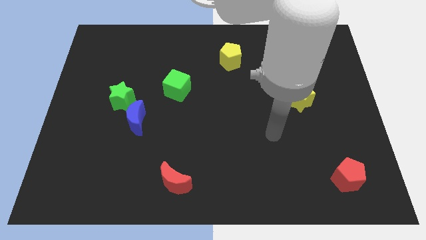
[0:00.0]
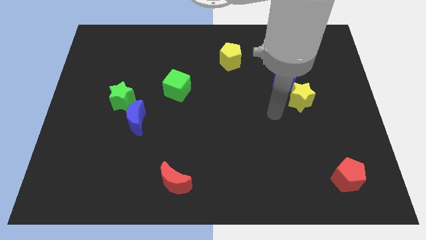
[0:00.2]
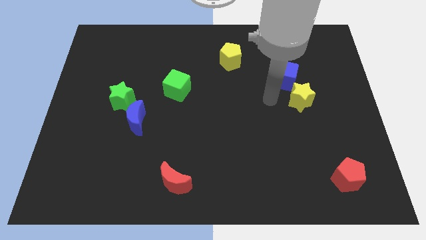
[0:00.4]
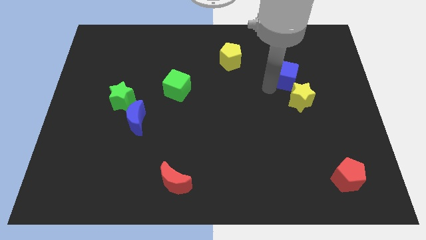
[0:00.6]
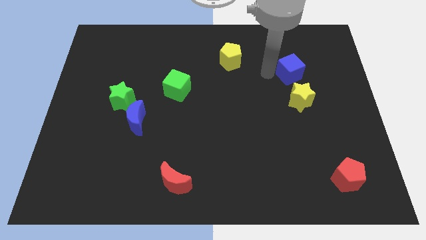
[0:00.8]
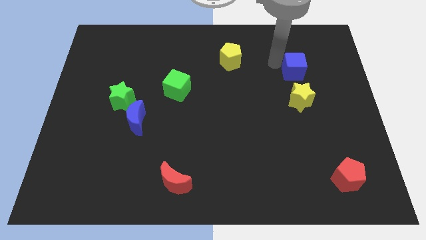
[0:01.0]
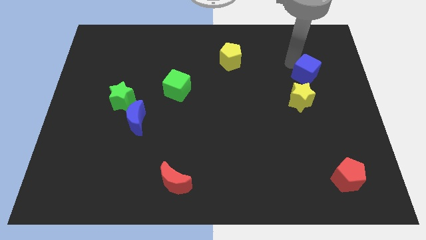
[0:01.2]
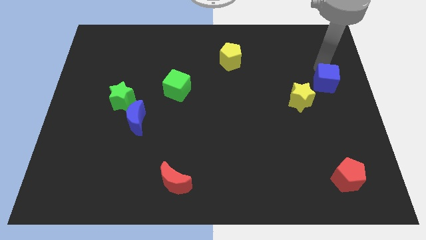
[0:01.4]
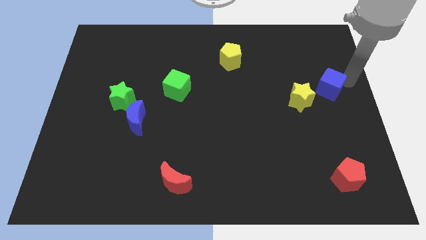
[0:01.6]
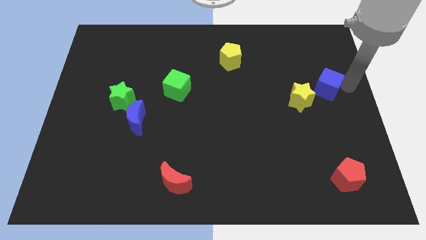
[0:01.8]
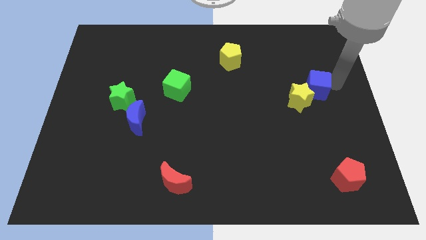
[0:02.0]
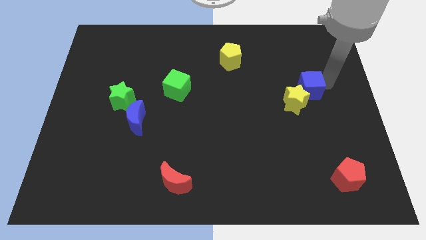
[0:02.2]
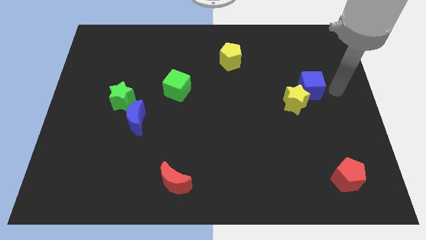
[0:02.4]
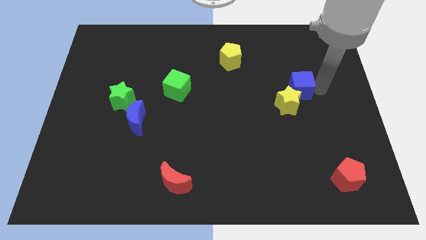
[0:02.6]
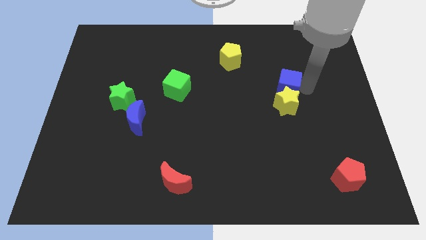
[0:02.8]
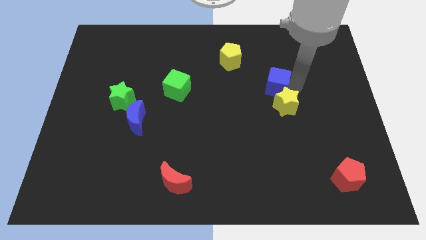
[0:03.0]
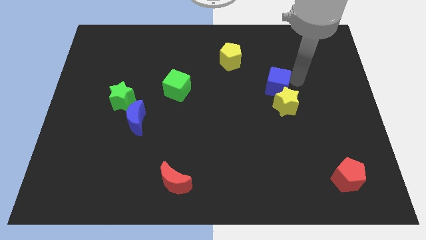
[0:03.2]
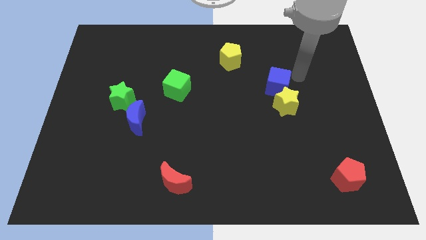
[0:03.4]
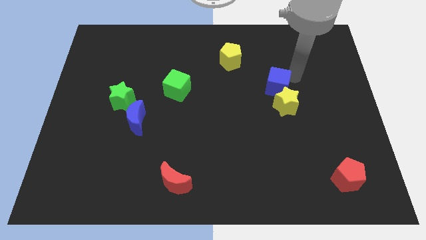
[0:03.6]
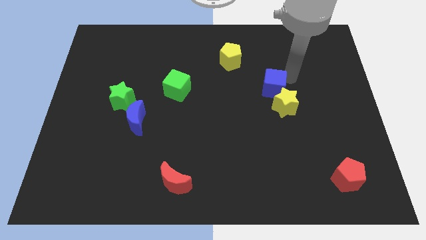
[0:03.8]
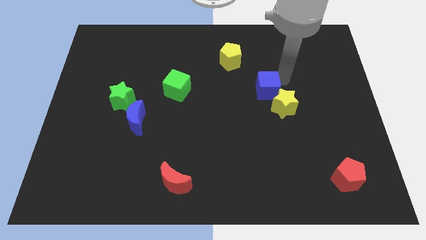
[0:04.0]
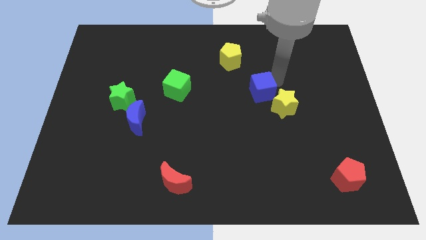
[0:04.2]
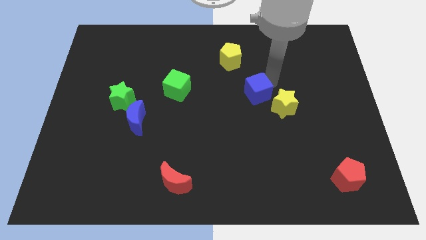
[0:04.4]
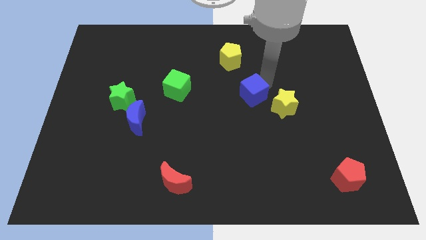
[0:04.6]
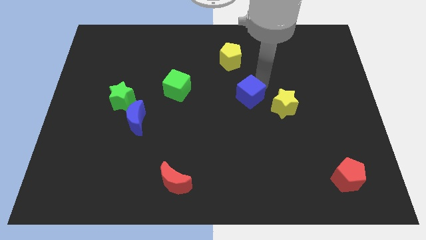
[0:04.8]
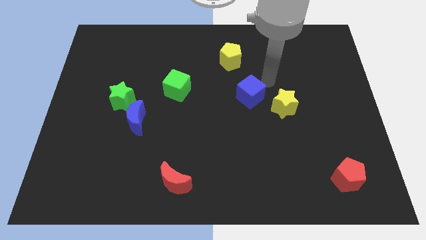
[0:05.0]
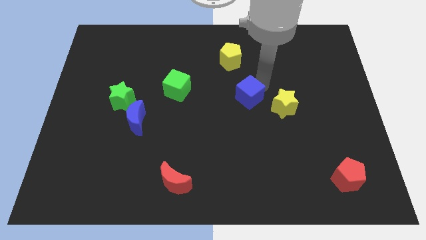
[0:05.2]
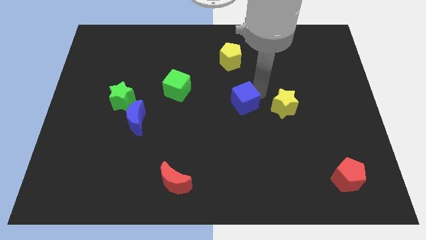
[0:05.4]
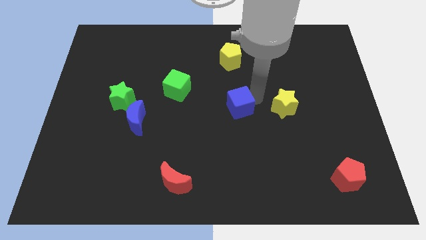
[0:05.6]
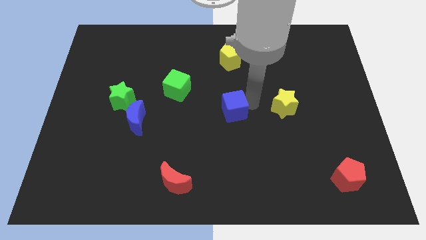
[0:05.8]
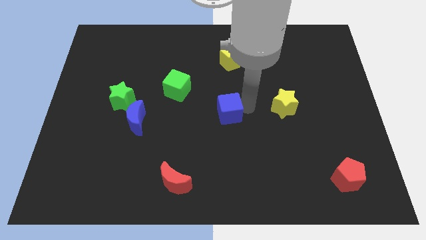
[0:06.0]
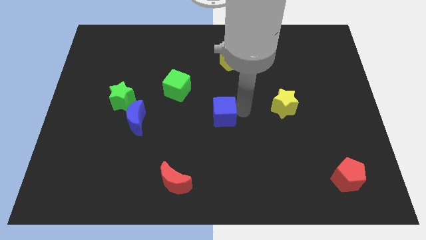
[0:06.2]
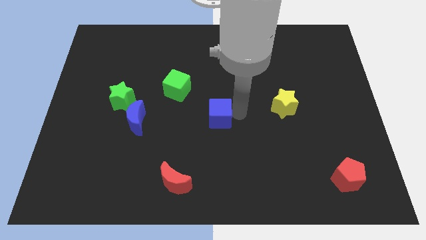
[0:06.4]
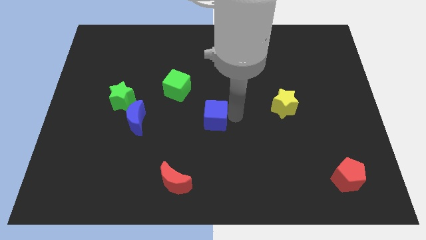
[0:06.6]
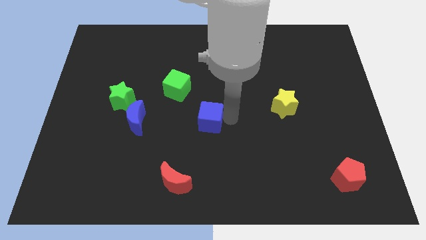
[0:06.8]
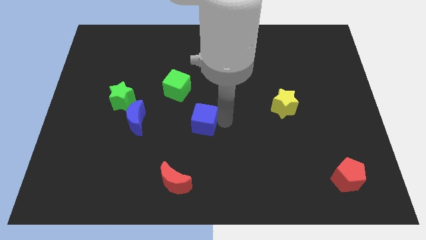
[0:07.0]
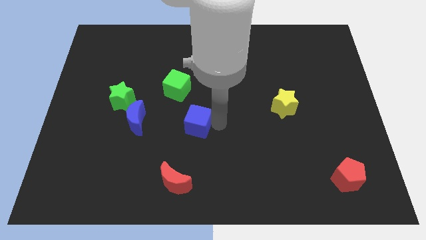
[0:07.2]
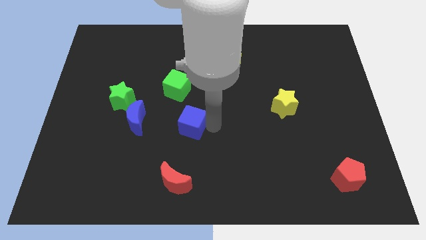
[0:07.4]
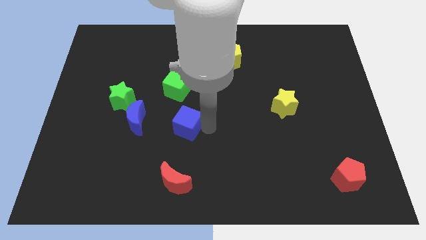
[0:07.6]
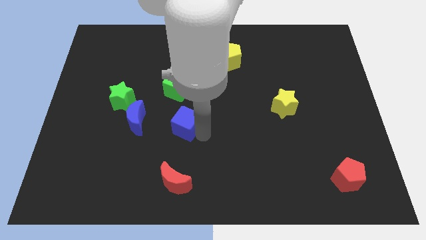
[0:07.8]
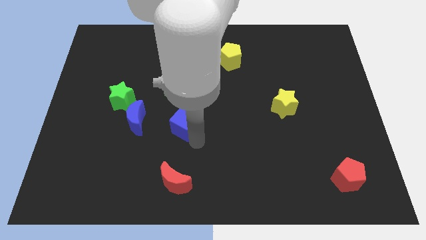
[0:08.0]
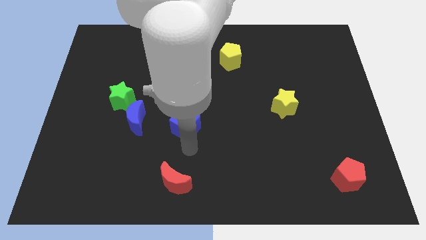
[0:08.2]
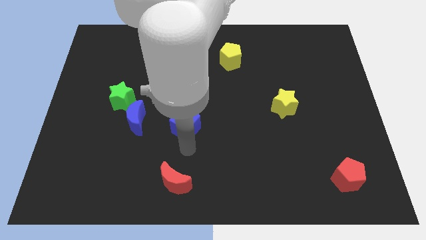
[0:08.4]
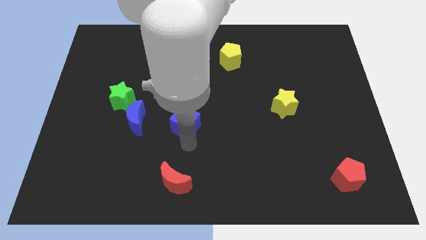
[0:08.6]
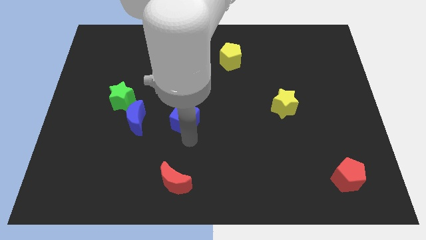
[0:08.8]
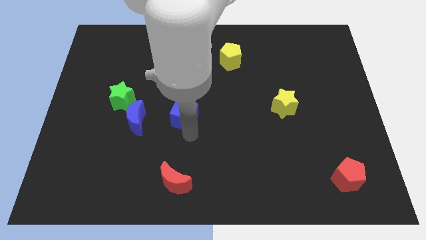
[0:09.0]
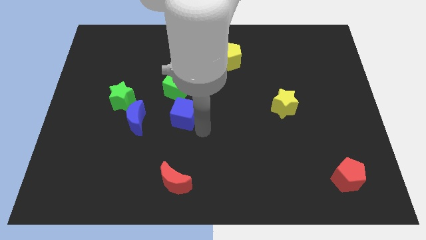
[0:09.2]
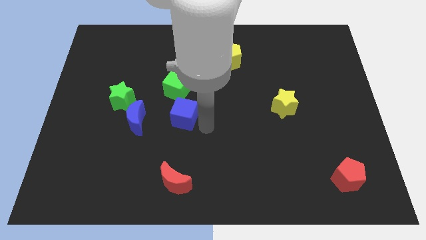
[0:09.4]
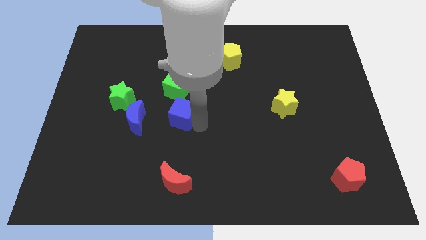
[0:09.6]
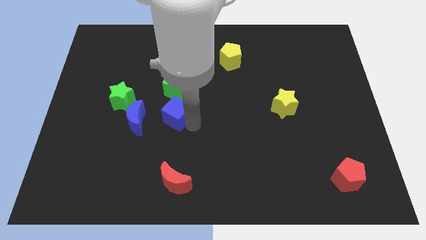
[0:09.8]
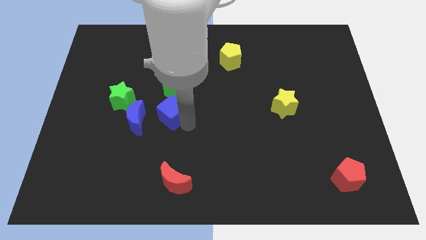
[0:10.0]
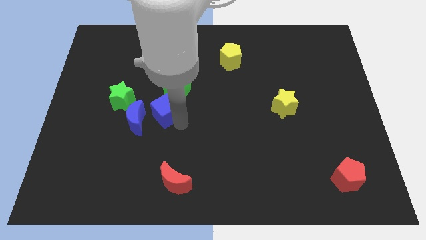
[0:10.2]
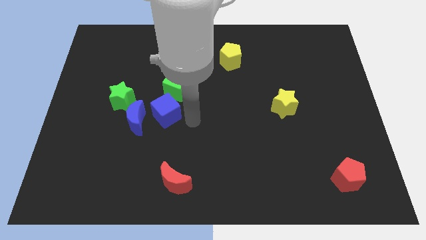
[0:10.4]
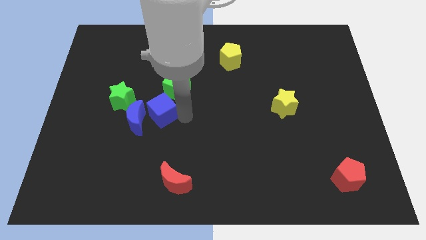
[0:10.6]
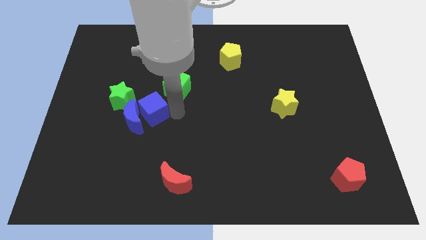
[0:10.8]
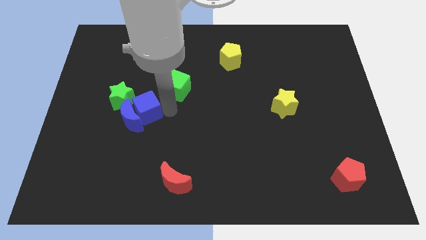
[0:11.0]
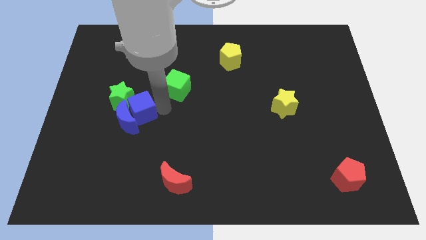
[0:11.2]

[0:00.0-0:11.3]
put the blue cube close to the green star

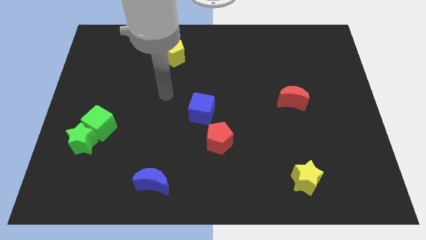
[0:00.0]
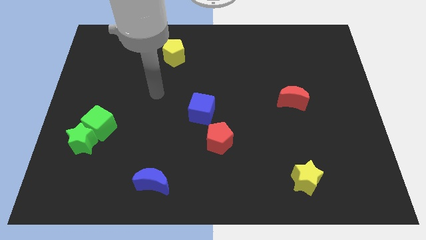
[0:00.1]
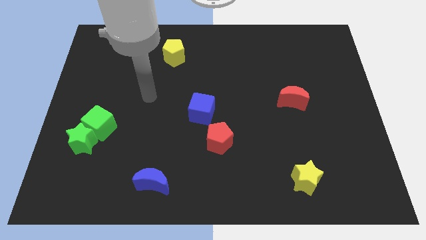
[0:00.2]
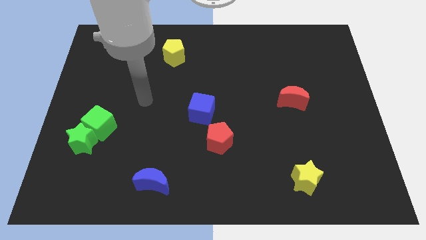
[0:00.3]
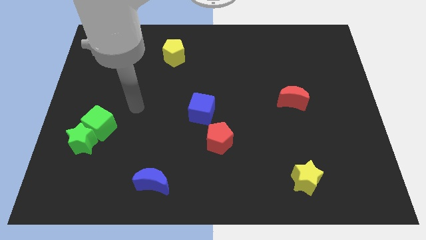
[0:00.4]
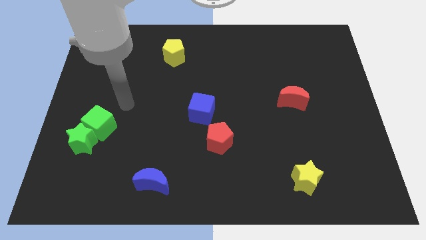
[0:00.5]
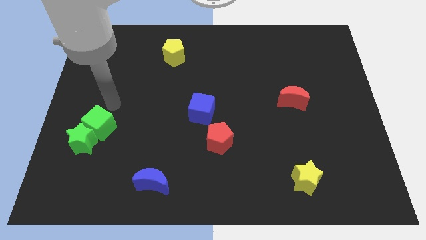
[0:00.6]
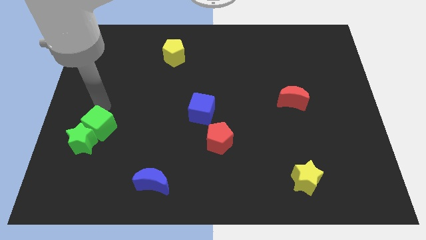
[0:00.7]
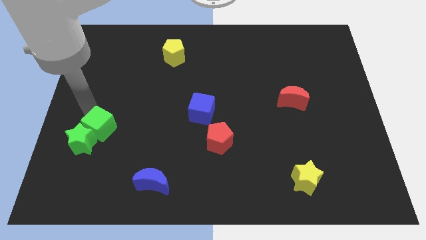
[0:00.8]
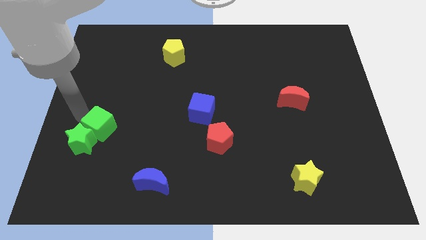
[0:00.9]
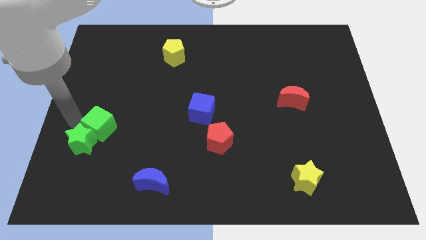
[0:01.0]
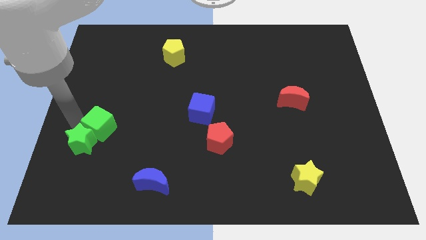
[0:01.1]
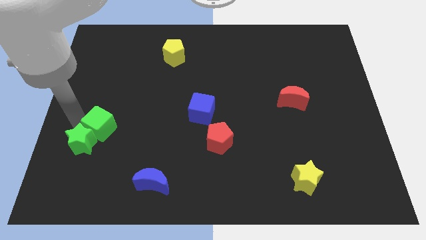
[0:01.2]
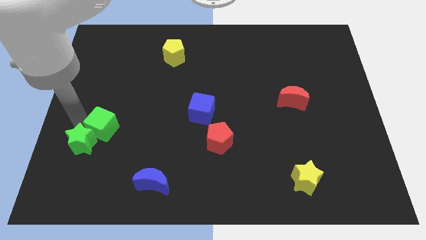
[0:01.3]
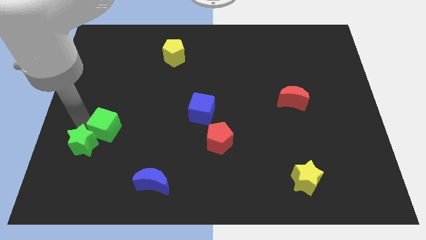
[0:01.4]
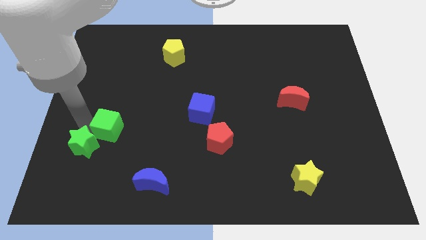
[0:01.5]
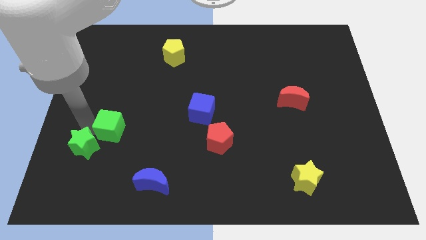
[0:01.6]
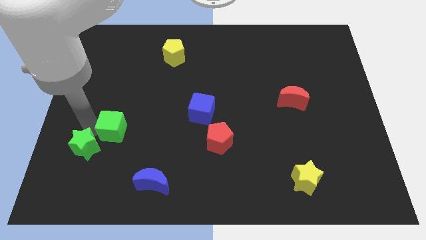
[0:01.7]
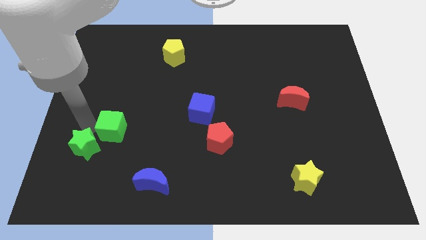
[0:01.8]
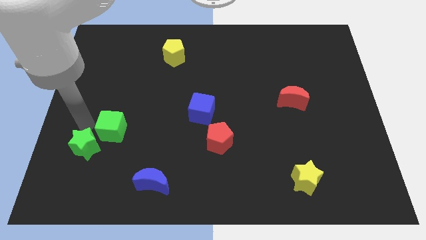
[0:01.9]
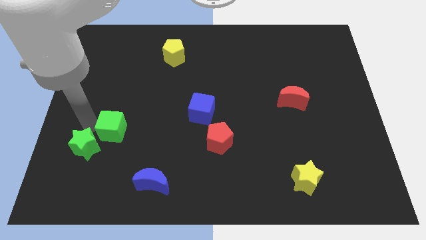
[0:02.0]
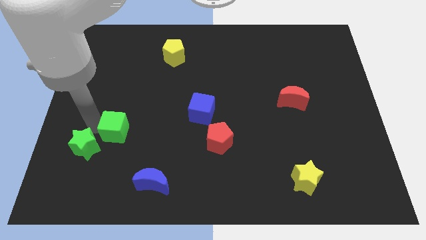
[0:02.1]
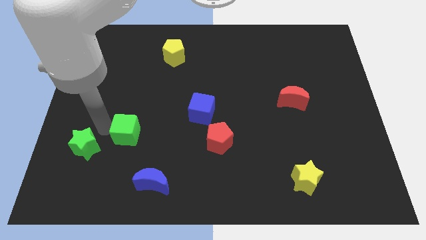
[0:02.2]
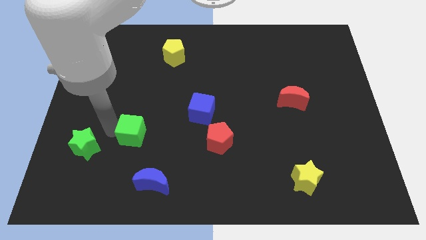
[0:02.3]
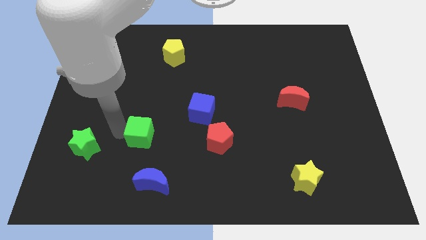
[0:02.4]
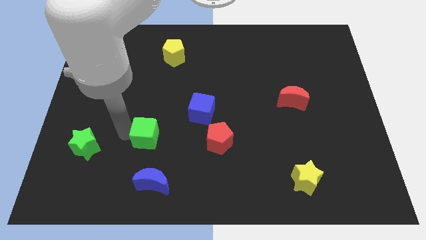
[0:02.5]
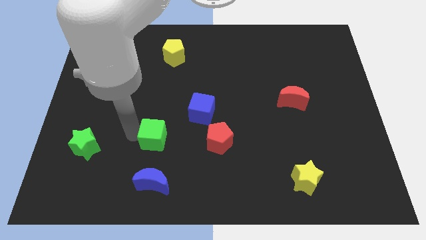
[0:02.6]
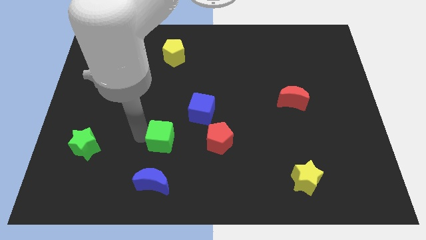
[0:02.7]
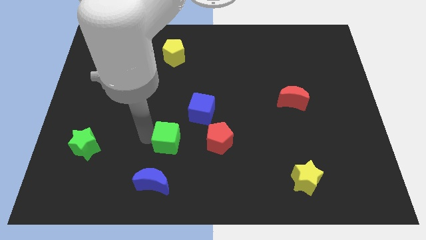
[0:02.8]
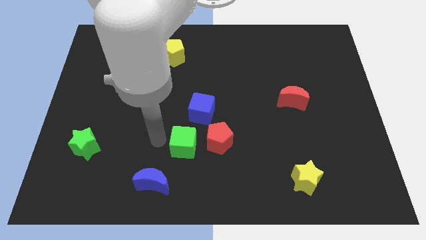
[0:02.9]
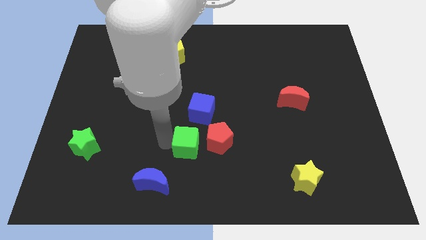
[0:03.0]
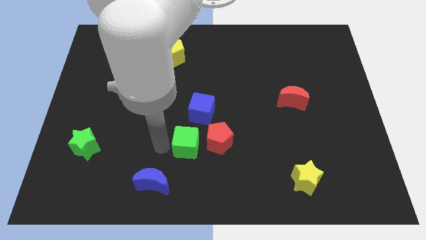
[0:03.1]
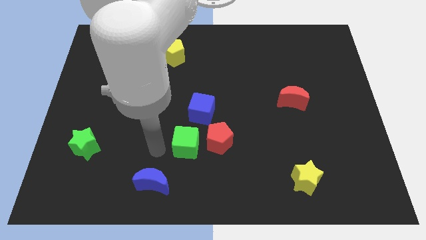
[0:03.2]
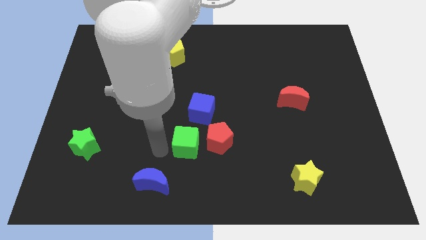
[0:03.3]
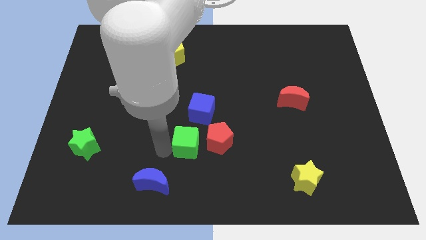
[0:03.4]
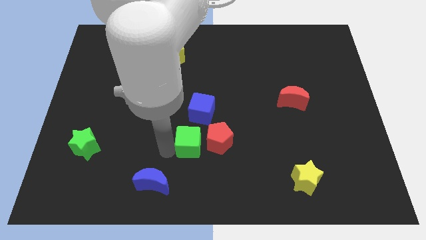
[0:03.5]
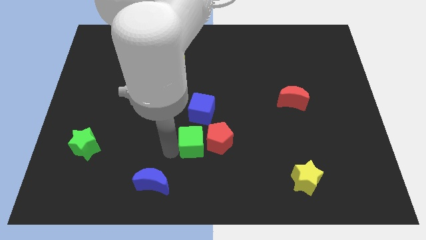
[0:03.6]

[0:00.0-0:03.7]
move the green cube towards the red pentagon
